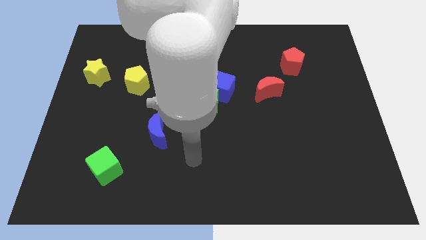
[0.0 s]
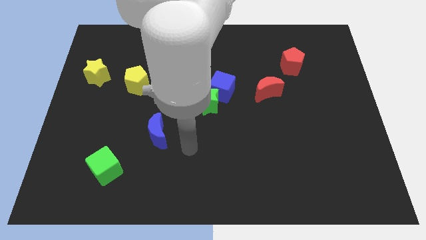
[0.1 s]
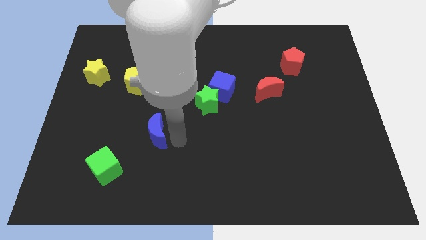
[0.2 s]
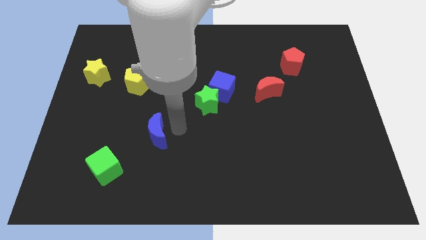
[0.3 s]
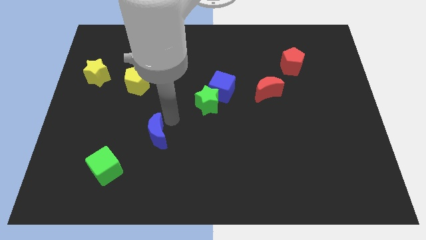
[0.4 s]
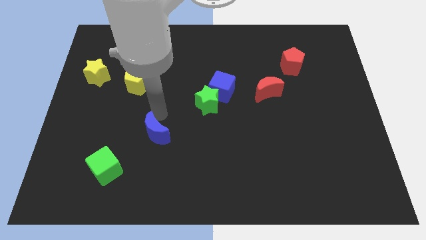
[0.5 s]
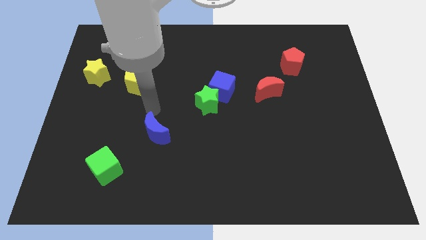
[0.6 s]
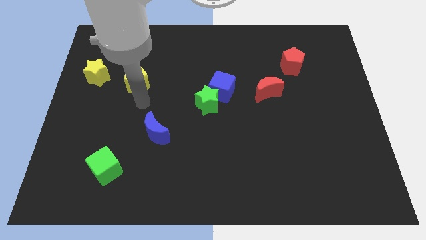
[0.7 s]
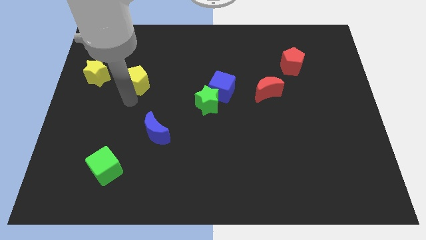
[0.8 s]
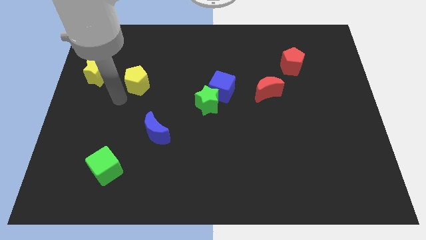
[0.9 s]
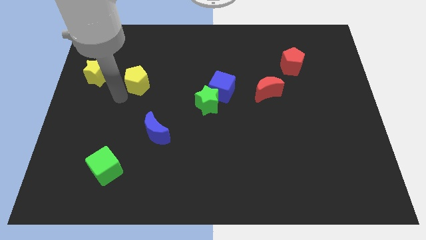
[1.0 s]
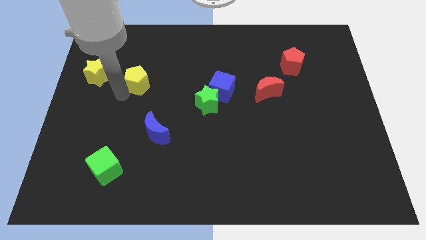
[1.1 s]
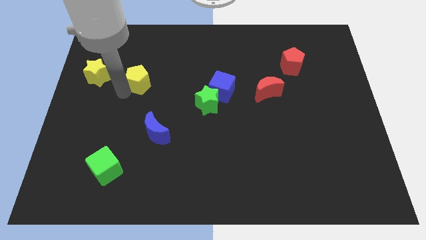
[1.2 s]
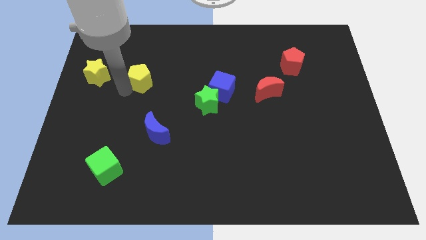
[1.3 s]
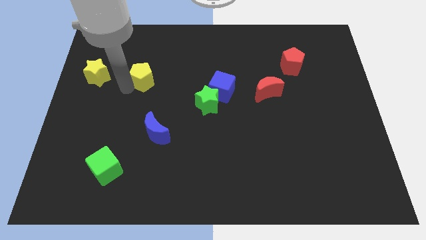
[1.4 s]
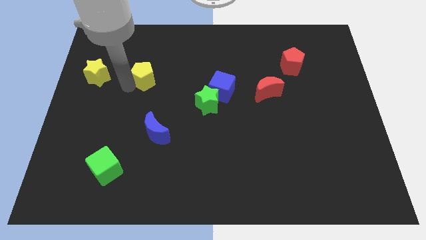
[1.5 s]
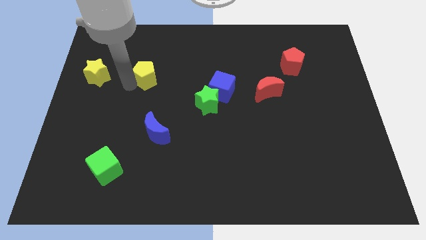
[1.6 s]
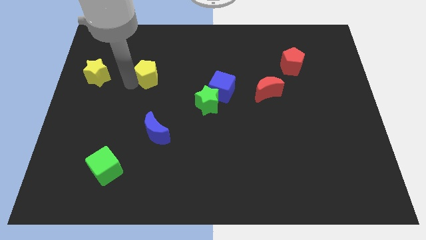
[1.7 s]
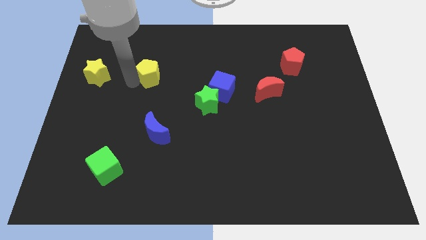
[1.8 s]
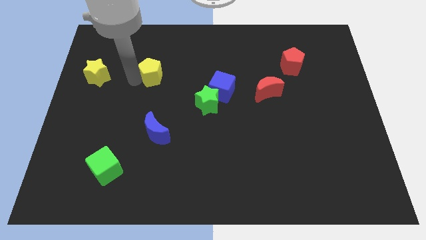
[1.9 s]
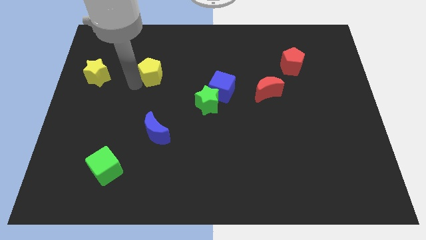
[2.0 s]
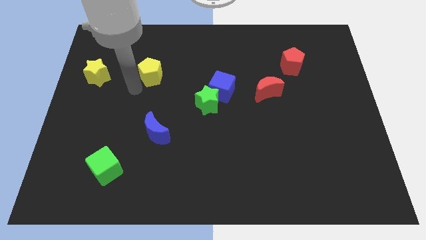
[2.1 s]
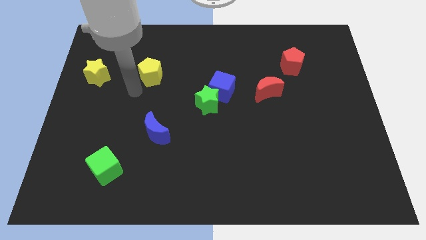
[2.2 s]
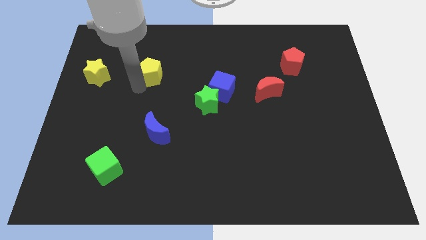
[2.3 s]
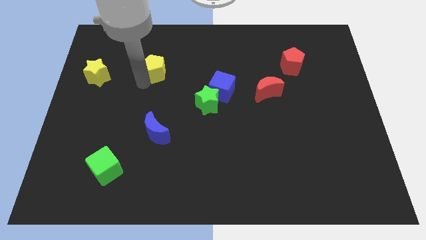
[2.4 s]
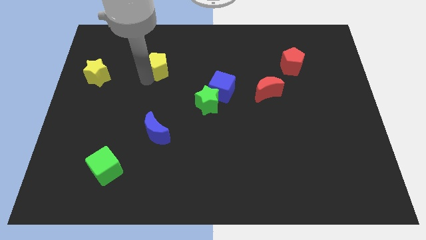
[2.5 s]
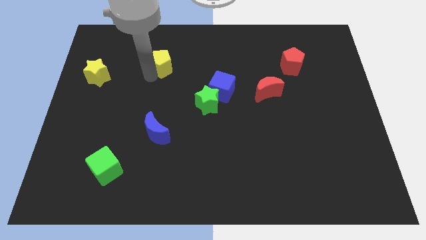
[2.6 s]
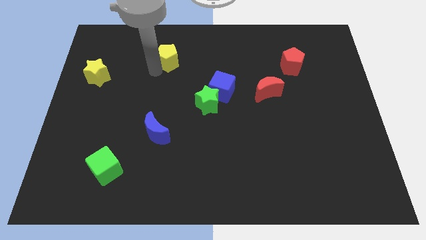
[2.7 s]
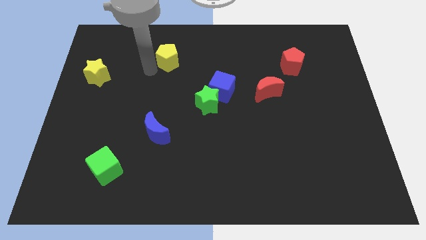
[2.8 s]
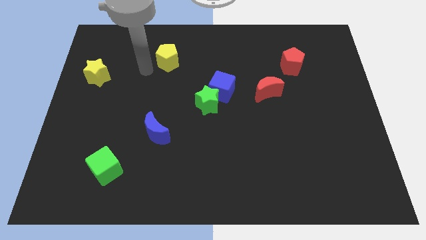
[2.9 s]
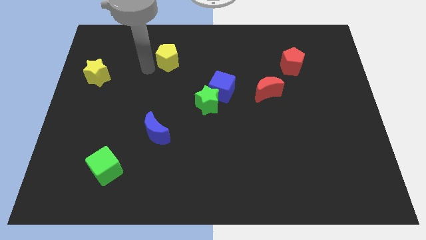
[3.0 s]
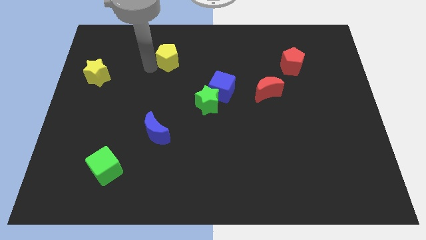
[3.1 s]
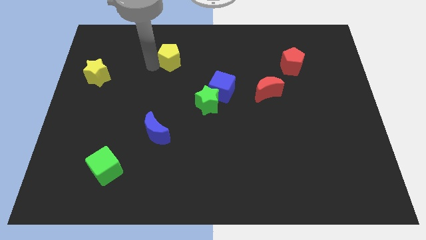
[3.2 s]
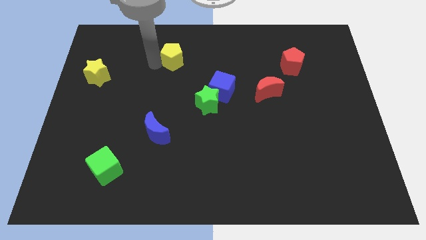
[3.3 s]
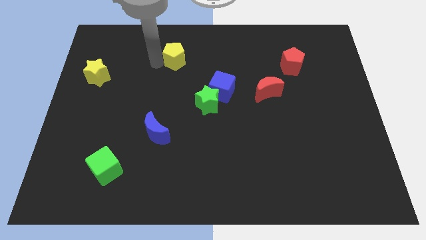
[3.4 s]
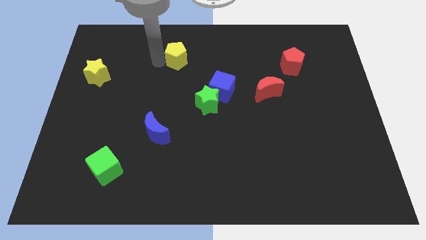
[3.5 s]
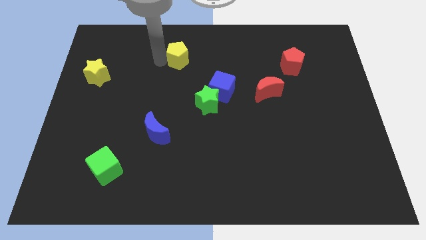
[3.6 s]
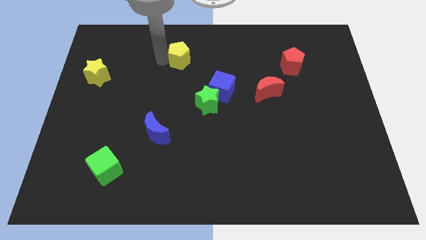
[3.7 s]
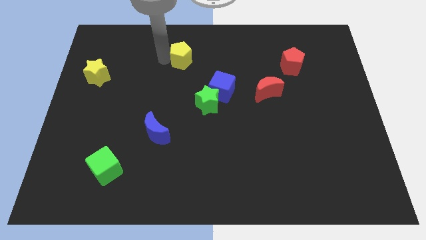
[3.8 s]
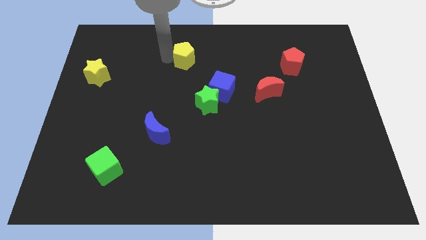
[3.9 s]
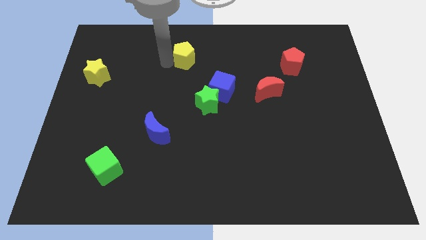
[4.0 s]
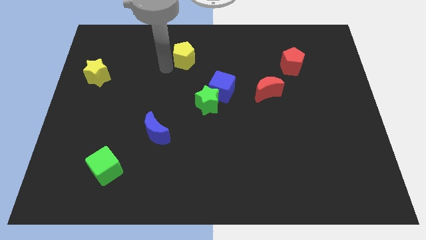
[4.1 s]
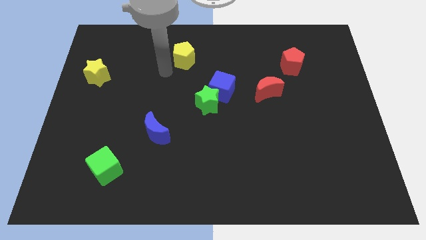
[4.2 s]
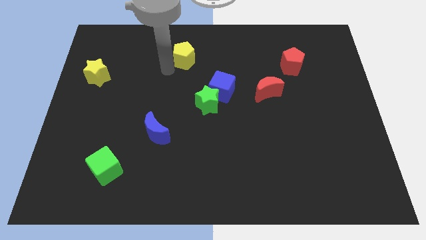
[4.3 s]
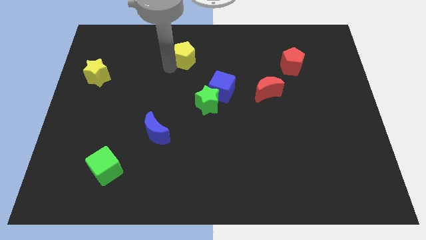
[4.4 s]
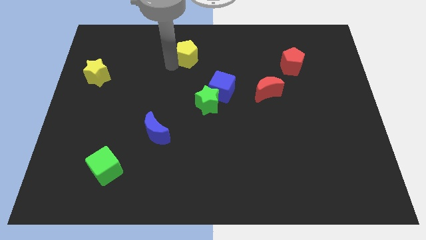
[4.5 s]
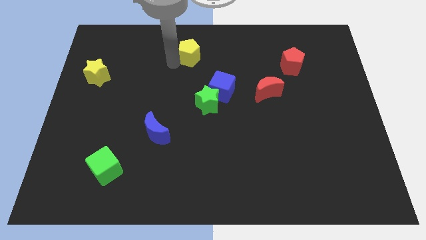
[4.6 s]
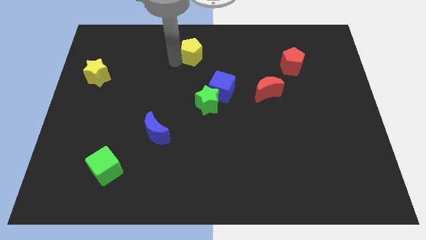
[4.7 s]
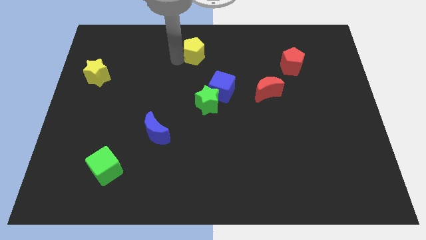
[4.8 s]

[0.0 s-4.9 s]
slide the yellow pentagon to the top

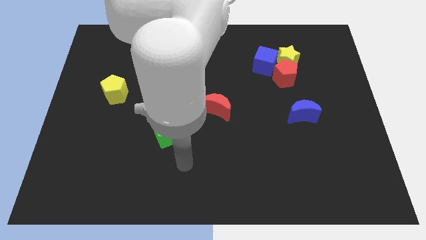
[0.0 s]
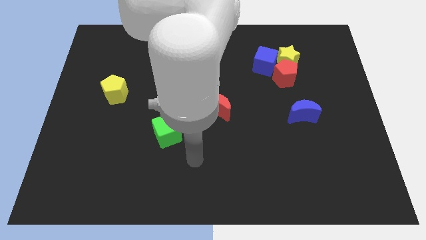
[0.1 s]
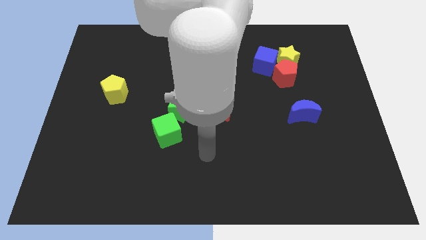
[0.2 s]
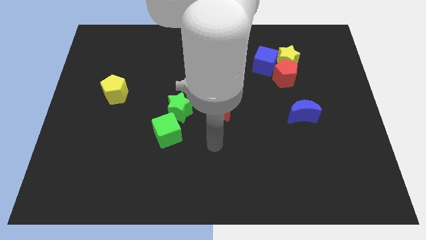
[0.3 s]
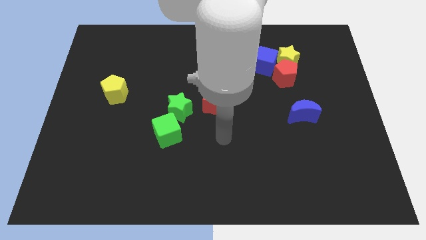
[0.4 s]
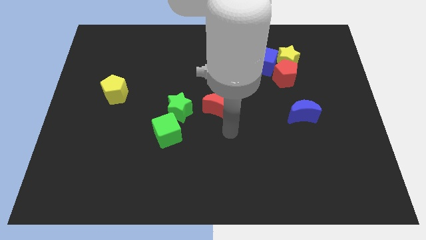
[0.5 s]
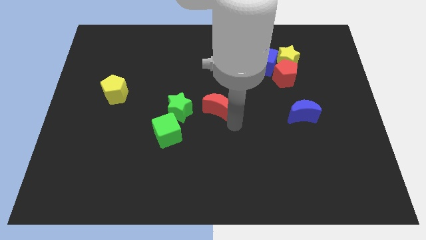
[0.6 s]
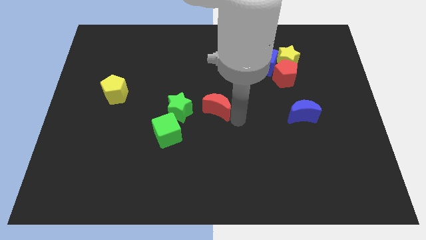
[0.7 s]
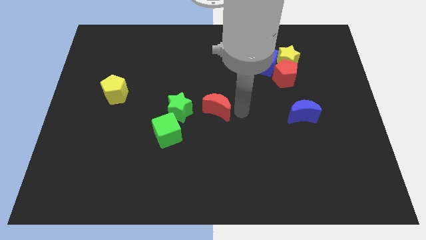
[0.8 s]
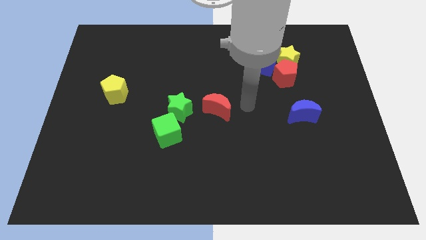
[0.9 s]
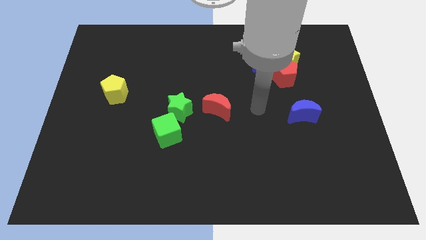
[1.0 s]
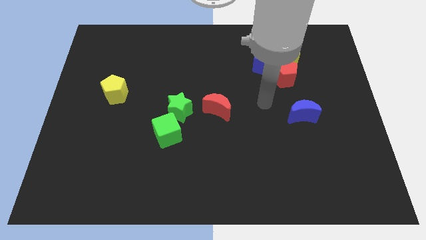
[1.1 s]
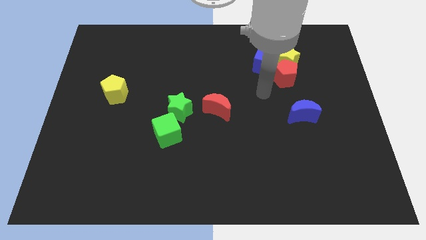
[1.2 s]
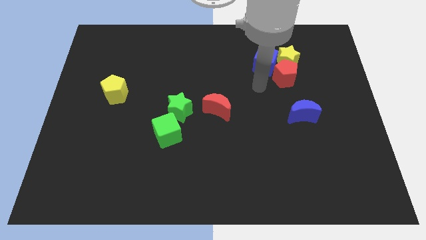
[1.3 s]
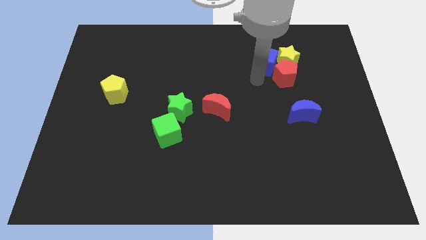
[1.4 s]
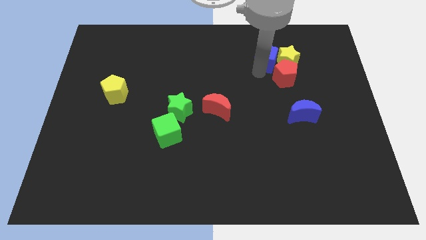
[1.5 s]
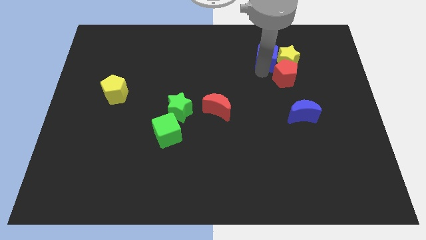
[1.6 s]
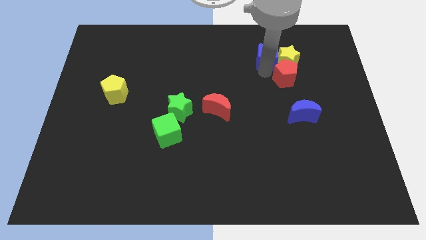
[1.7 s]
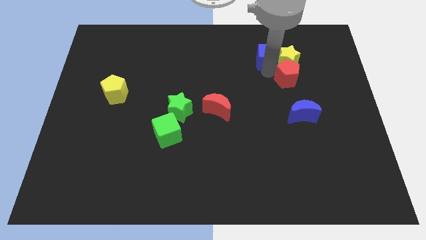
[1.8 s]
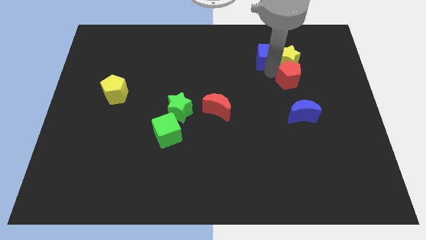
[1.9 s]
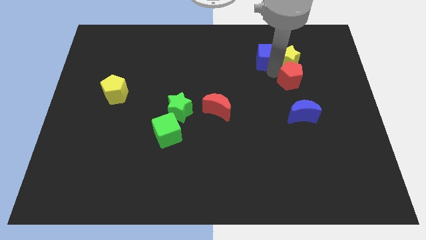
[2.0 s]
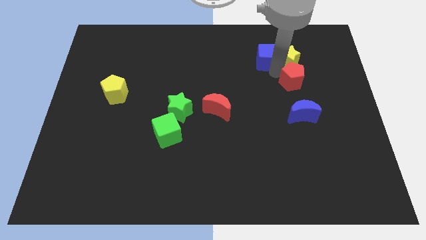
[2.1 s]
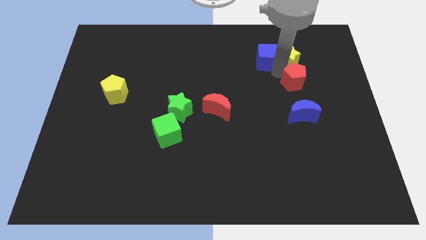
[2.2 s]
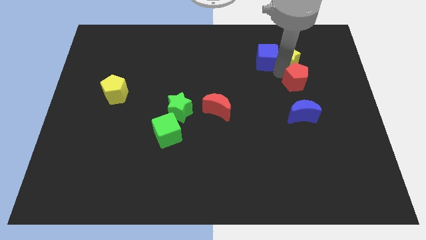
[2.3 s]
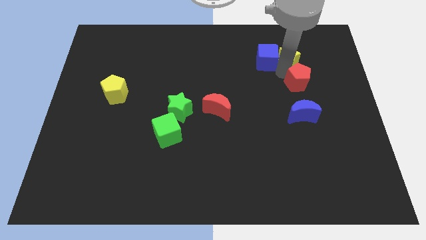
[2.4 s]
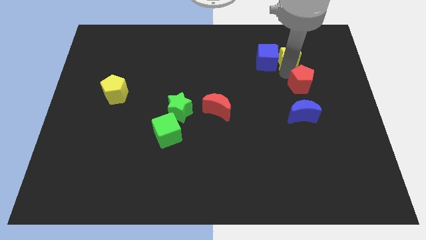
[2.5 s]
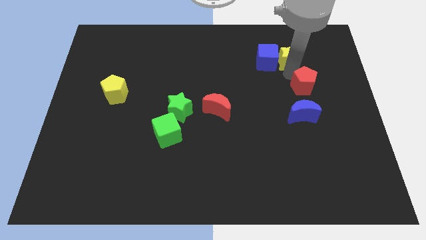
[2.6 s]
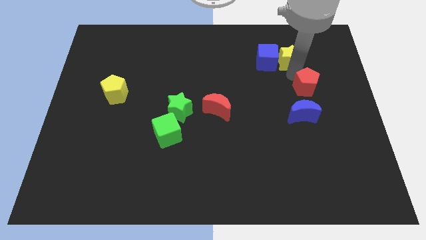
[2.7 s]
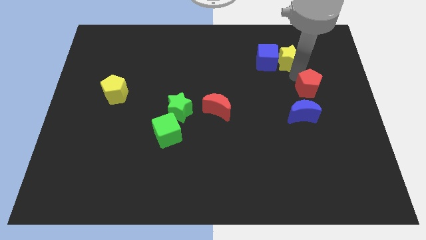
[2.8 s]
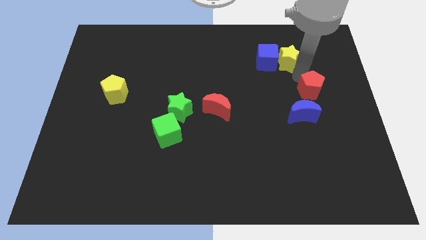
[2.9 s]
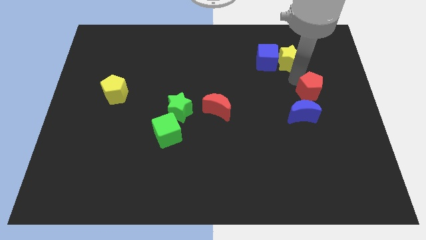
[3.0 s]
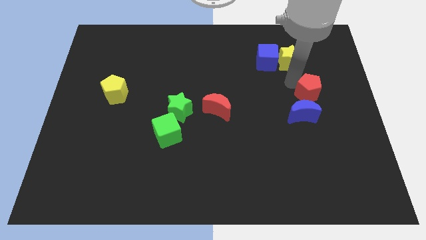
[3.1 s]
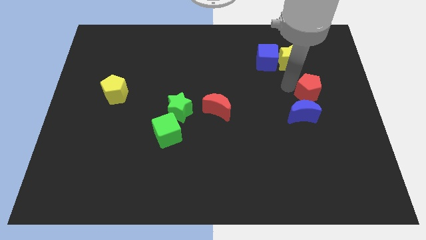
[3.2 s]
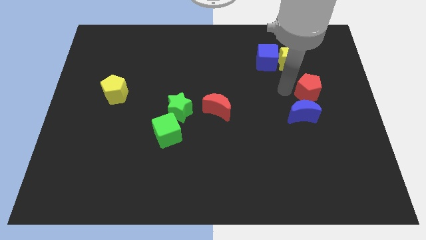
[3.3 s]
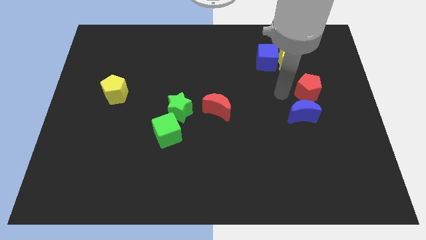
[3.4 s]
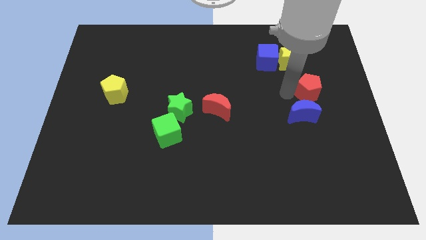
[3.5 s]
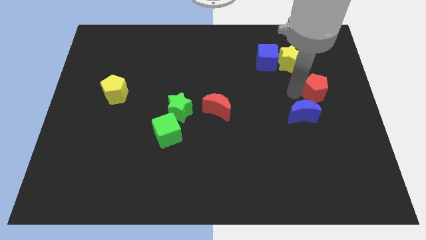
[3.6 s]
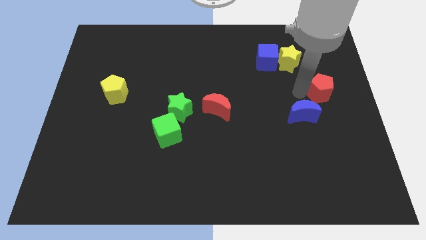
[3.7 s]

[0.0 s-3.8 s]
slide the red pentagon to the right side
